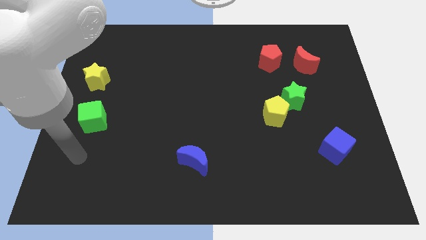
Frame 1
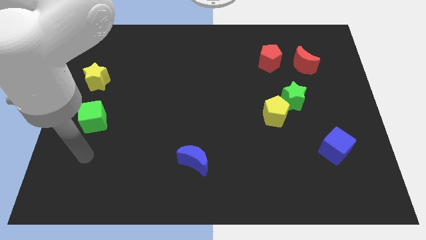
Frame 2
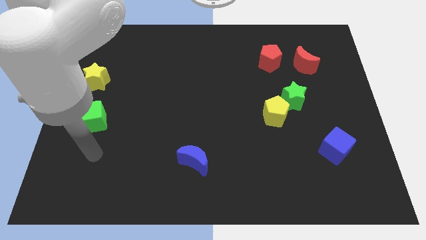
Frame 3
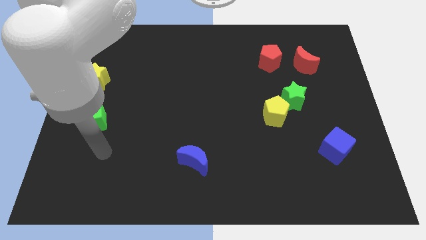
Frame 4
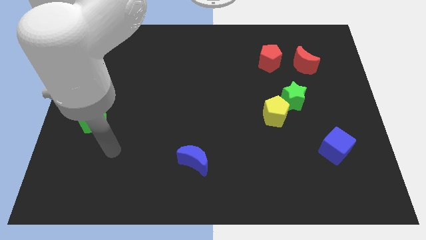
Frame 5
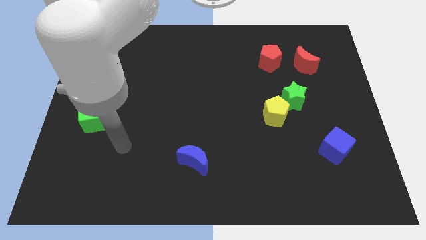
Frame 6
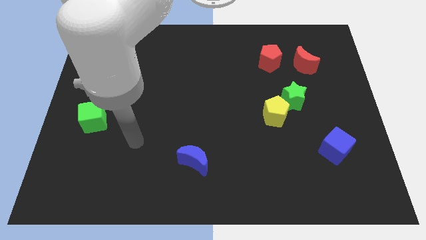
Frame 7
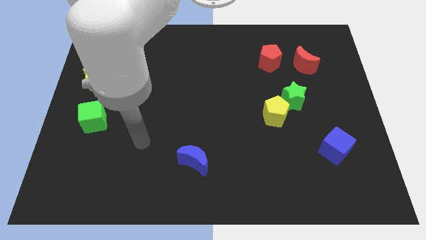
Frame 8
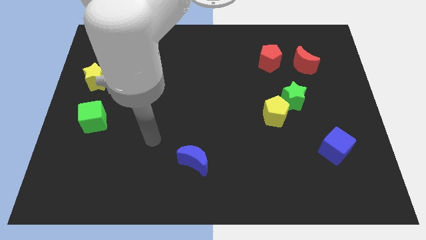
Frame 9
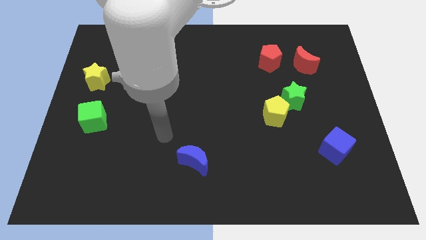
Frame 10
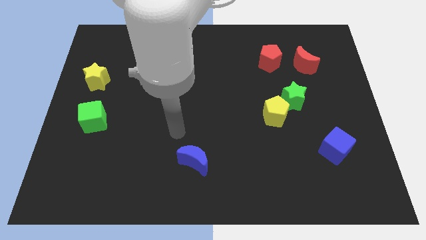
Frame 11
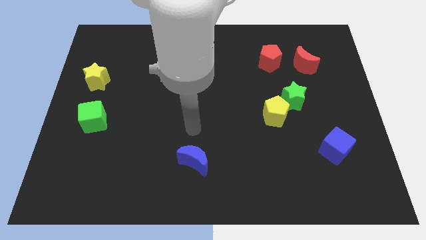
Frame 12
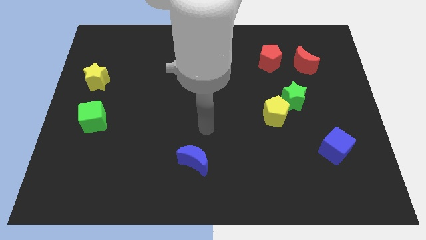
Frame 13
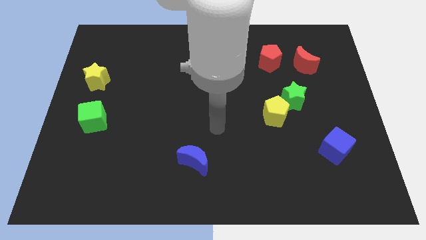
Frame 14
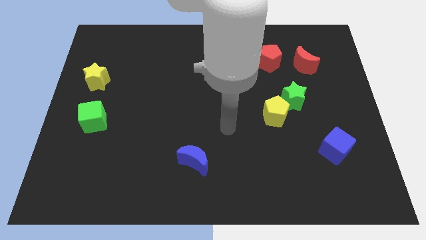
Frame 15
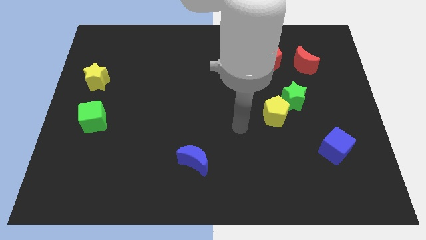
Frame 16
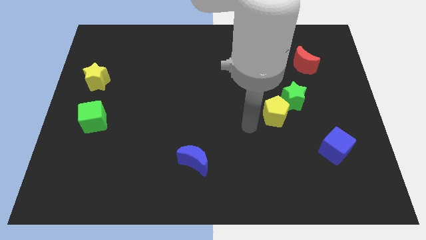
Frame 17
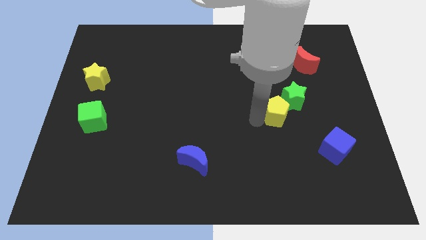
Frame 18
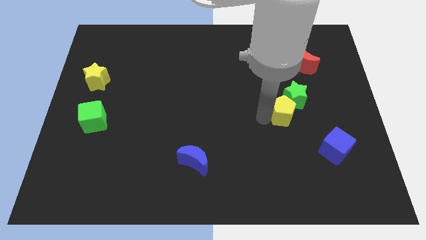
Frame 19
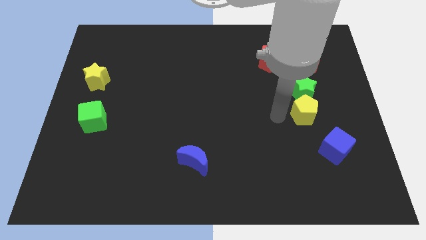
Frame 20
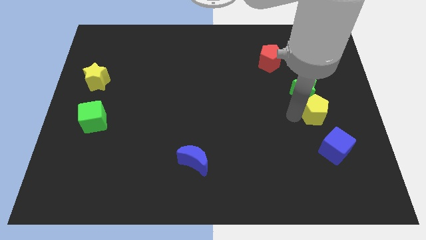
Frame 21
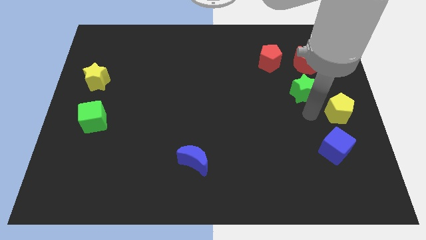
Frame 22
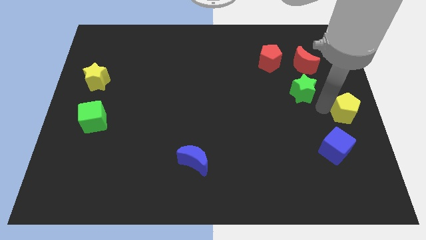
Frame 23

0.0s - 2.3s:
move the green star away from the yellow pentagon

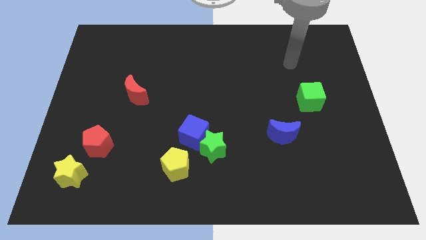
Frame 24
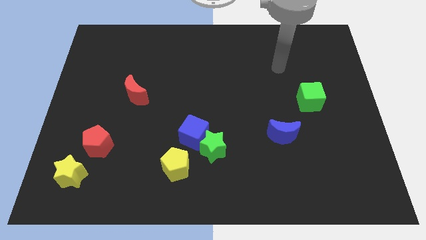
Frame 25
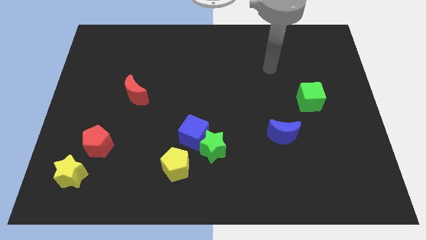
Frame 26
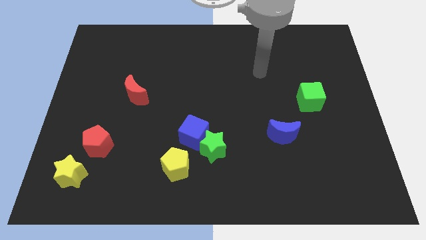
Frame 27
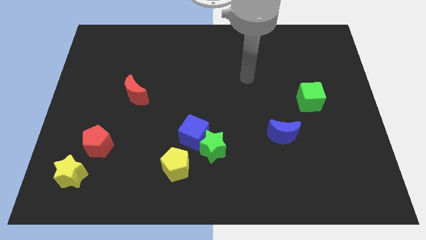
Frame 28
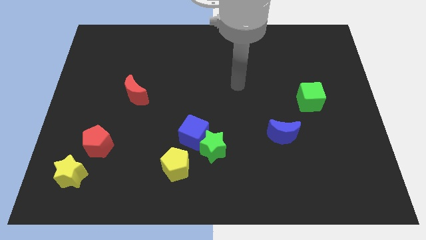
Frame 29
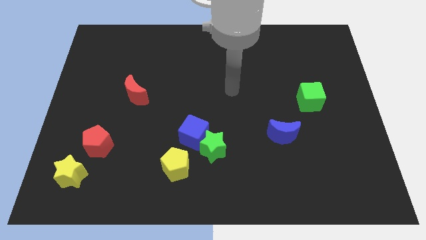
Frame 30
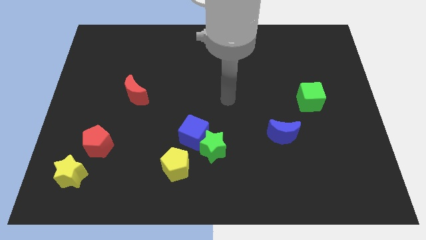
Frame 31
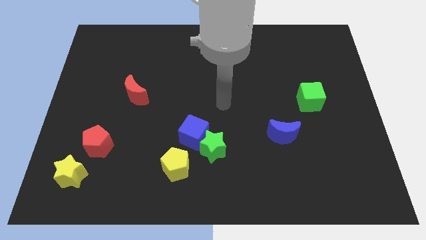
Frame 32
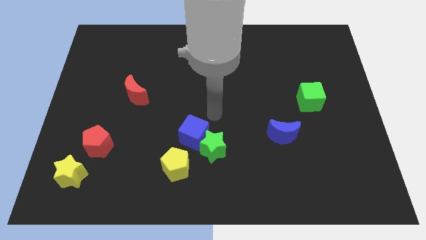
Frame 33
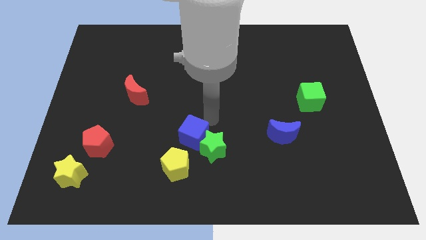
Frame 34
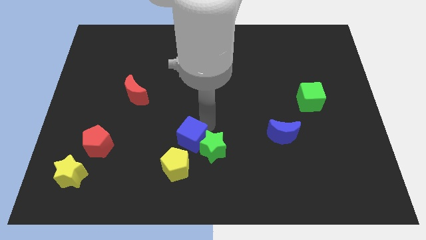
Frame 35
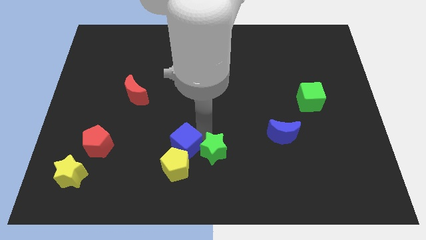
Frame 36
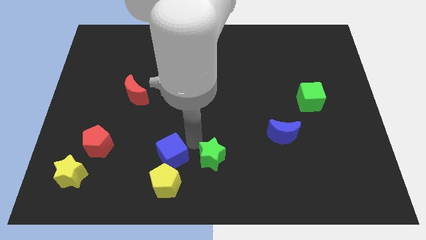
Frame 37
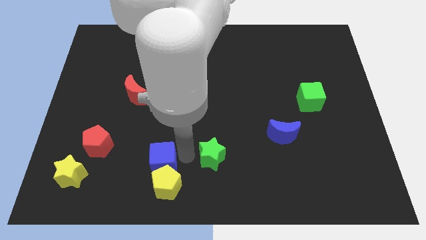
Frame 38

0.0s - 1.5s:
separate the green star from the blue cube and yellow pentagon

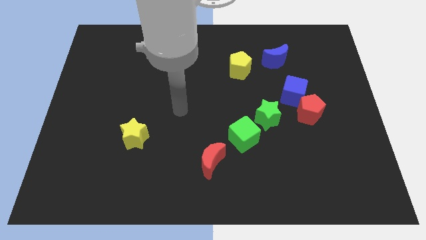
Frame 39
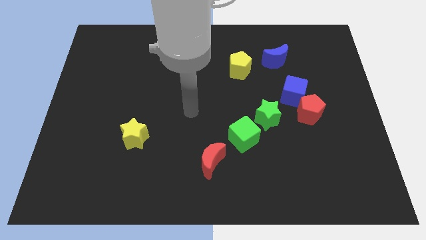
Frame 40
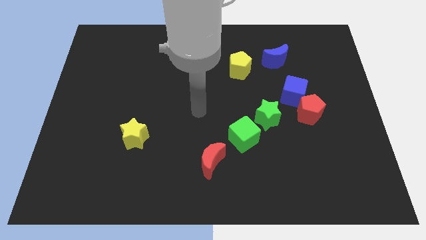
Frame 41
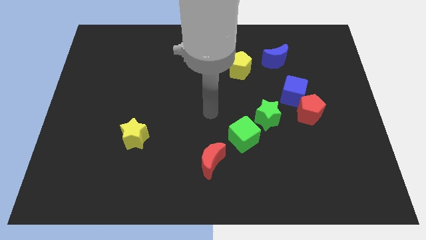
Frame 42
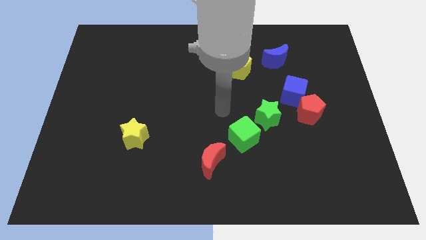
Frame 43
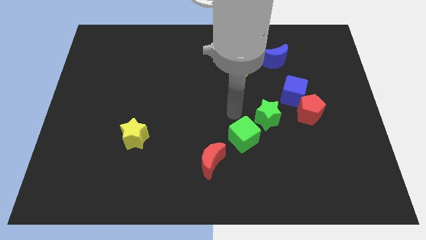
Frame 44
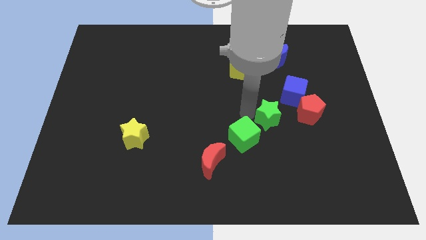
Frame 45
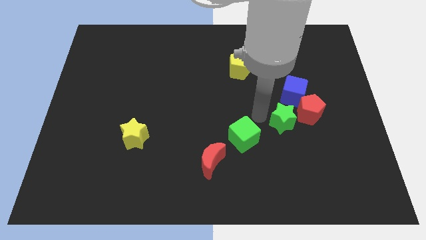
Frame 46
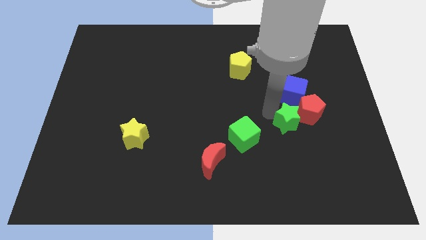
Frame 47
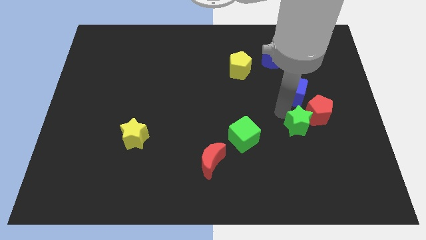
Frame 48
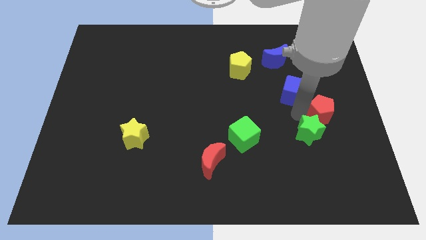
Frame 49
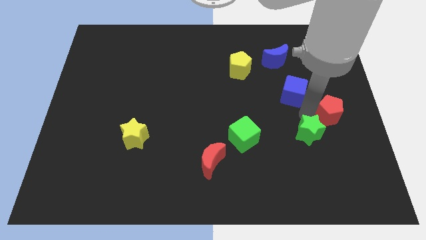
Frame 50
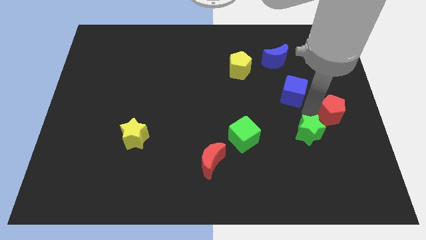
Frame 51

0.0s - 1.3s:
move the blue cube away from the red pentagon and green star

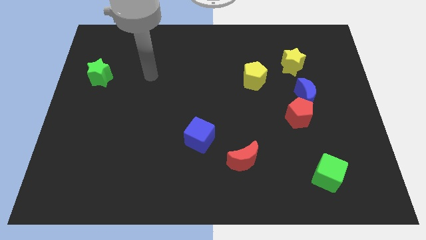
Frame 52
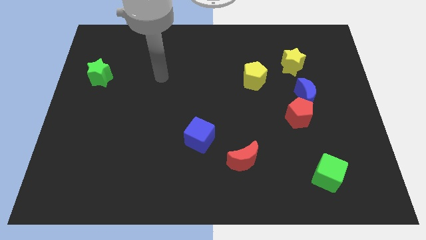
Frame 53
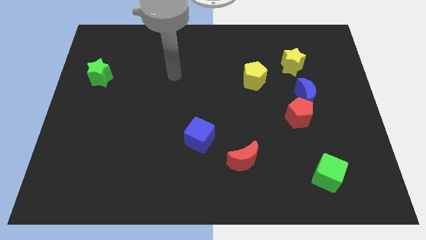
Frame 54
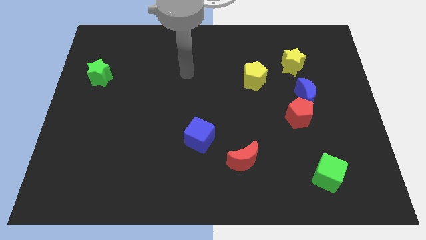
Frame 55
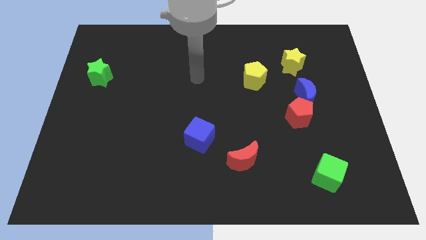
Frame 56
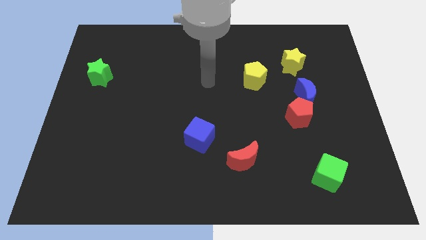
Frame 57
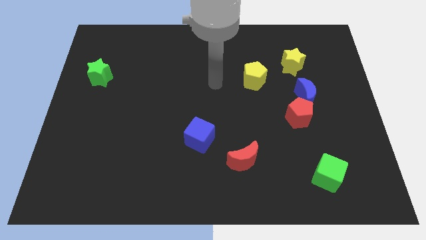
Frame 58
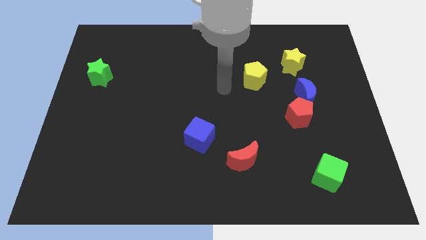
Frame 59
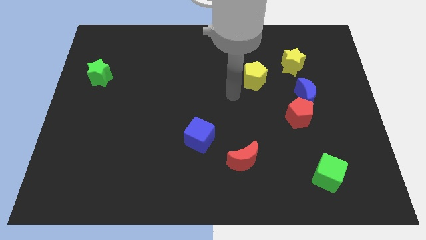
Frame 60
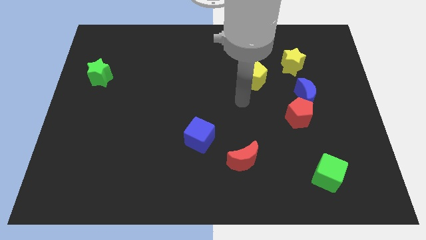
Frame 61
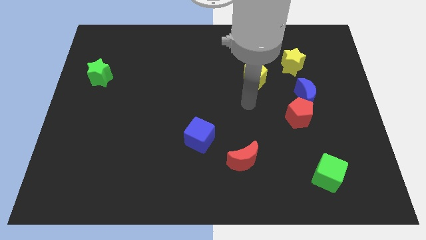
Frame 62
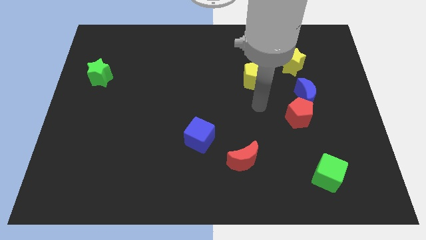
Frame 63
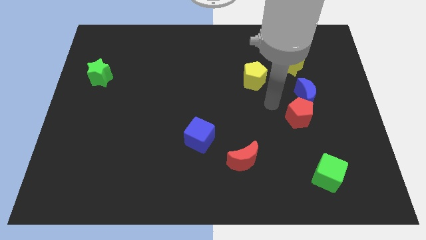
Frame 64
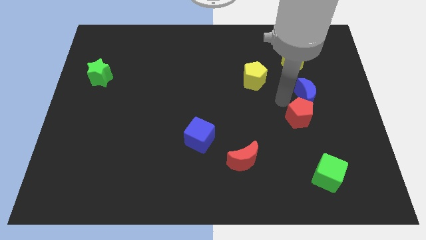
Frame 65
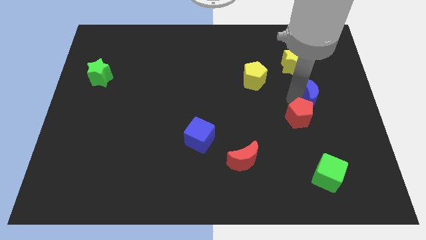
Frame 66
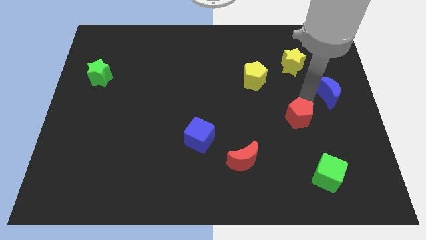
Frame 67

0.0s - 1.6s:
move the red pentagon away from the blue moon

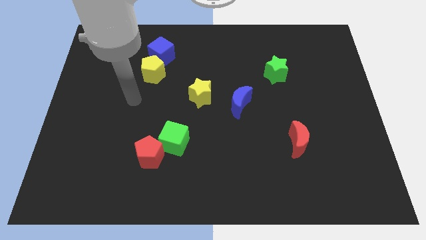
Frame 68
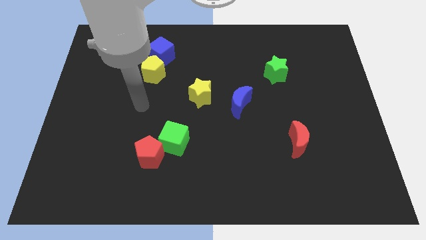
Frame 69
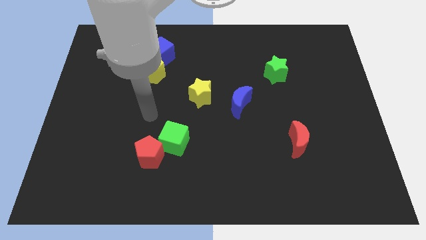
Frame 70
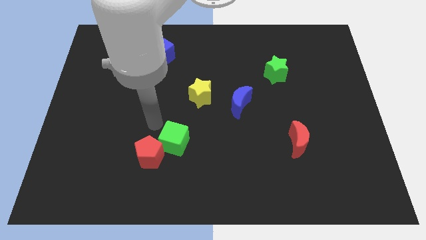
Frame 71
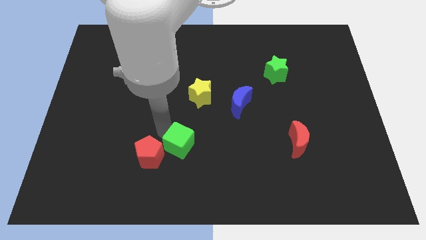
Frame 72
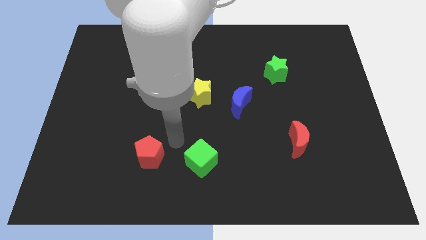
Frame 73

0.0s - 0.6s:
move the red pentagon away from the green cube

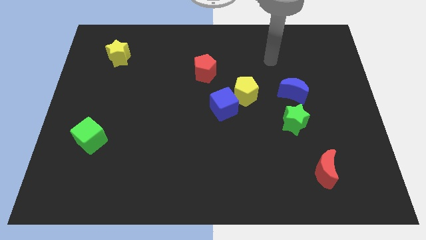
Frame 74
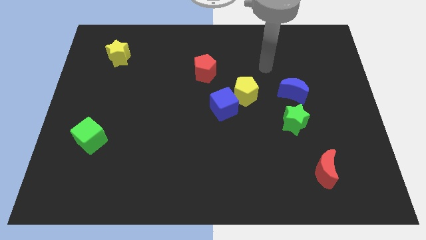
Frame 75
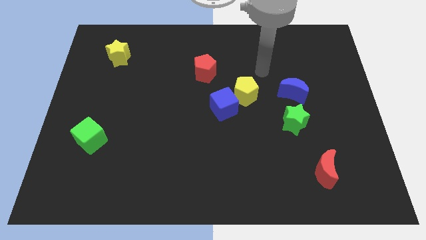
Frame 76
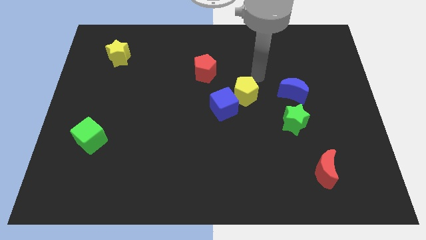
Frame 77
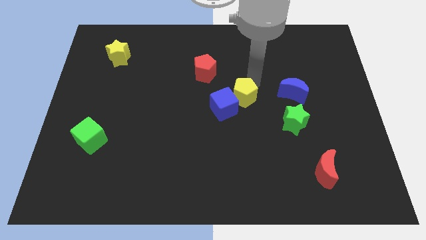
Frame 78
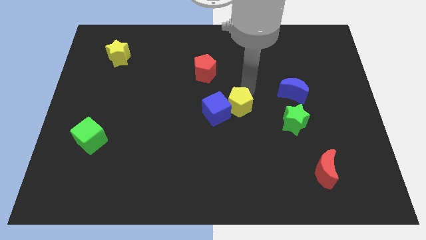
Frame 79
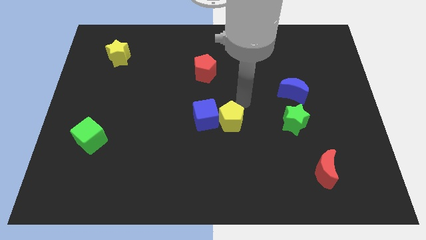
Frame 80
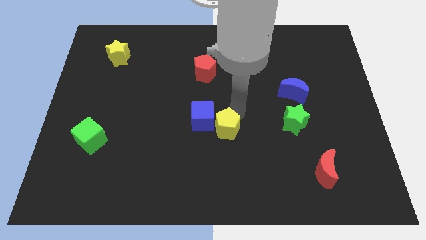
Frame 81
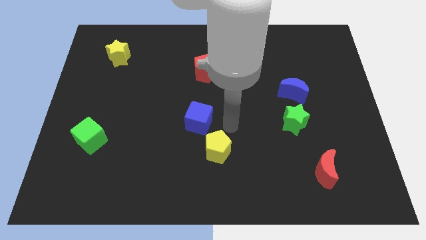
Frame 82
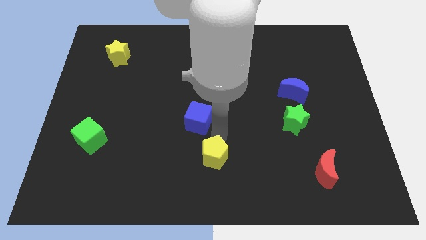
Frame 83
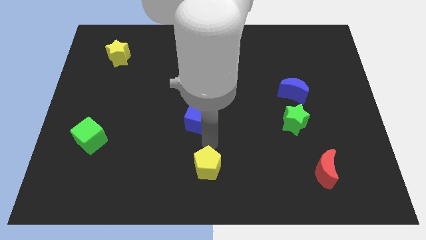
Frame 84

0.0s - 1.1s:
separate the blue cube from the yellow pentagon

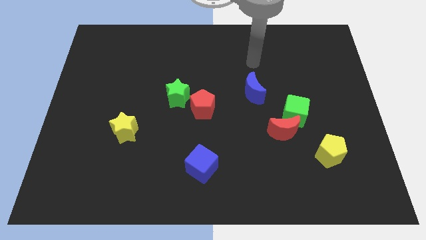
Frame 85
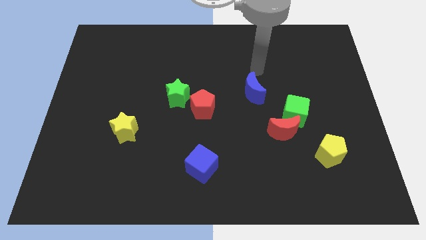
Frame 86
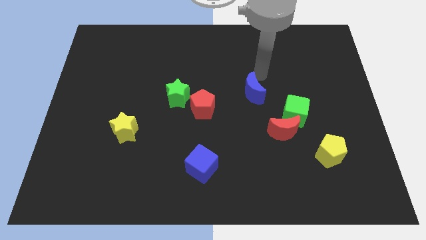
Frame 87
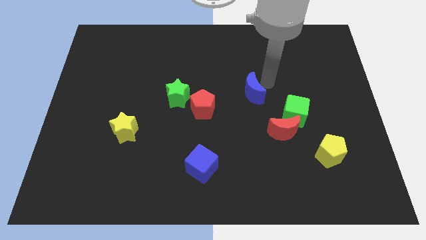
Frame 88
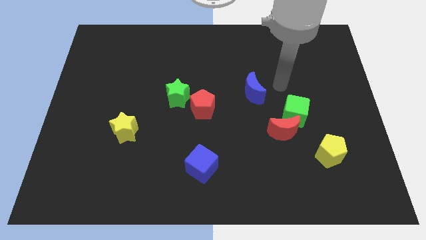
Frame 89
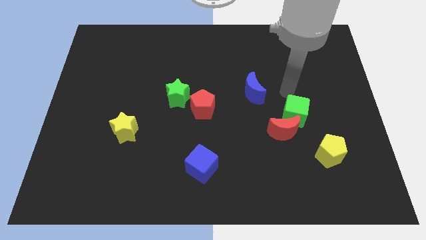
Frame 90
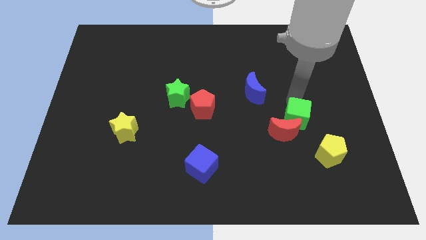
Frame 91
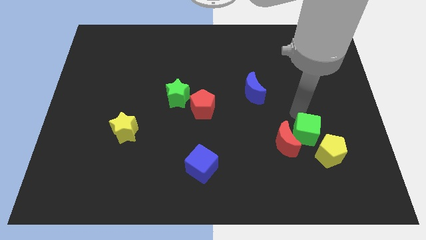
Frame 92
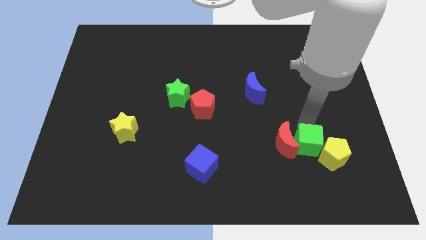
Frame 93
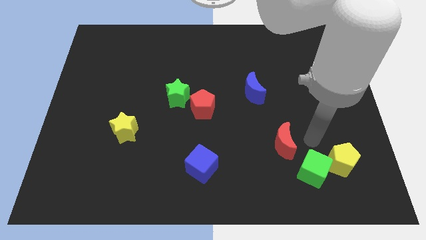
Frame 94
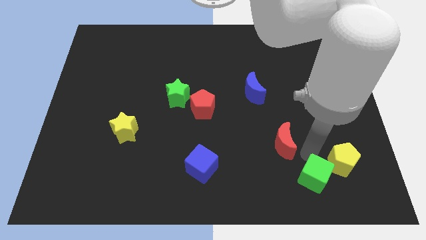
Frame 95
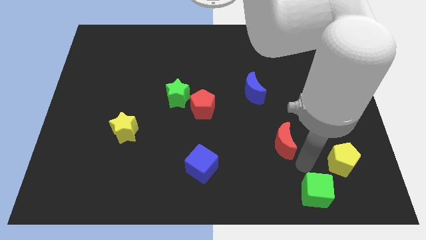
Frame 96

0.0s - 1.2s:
pull the red moon apart from the green cube
